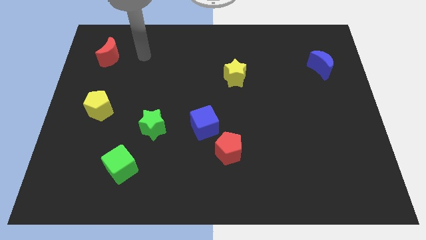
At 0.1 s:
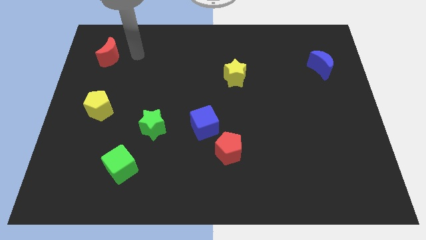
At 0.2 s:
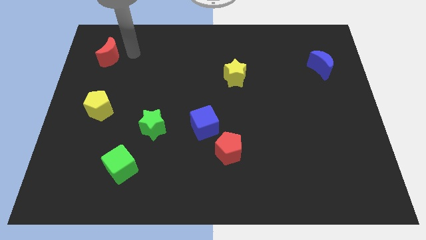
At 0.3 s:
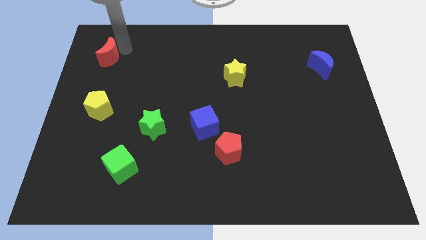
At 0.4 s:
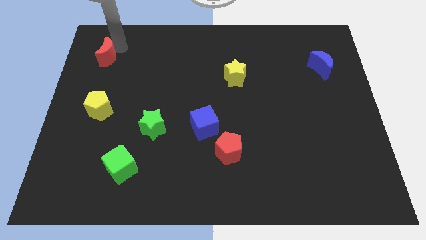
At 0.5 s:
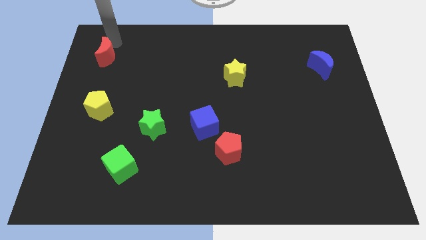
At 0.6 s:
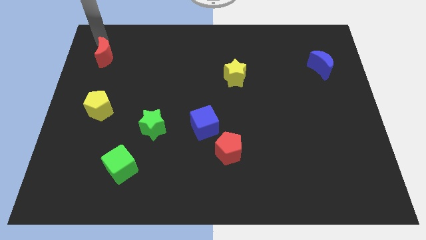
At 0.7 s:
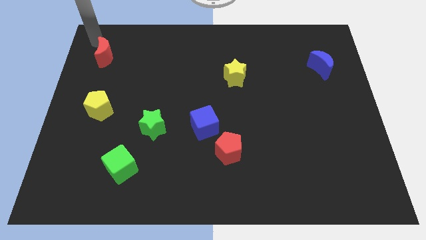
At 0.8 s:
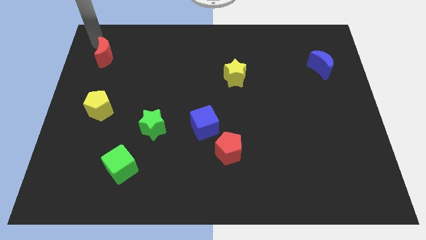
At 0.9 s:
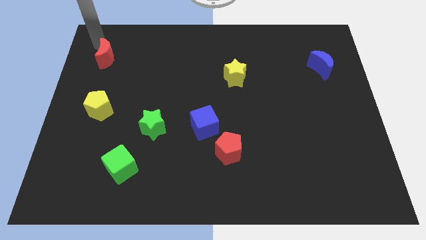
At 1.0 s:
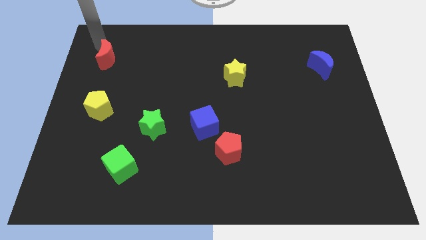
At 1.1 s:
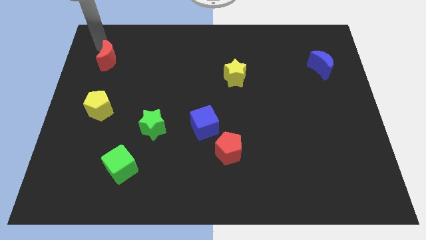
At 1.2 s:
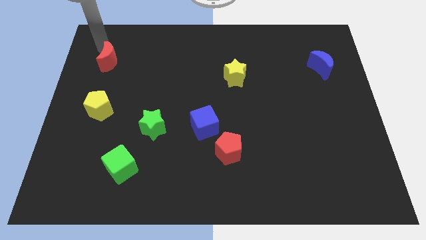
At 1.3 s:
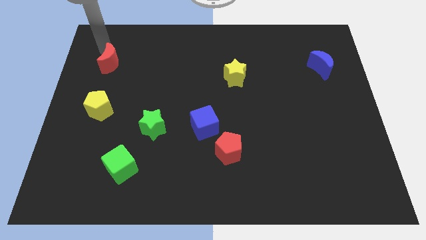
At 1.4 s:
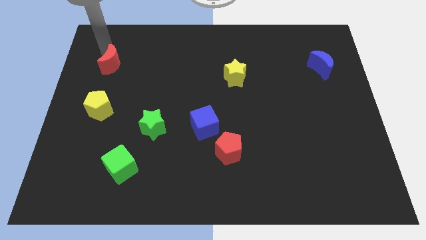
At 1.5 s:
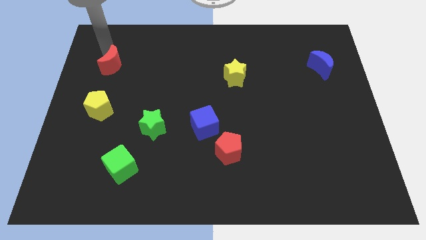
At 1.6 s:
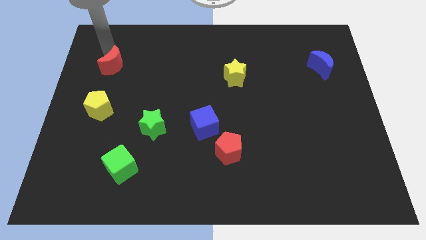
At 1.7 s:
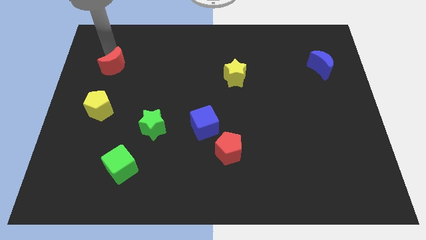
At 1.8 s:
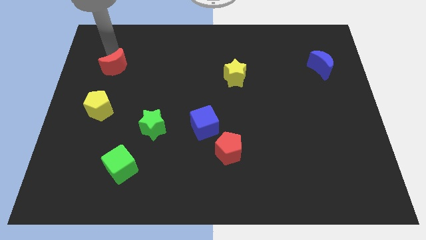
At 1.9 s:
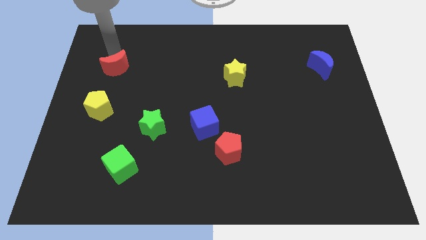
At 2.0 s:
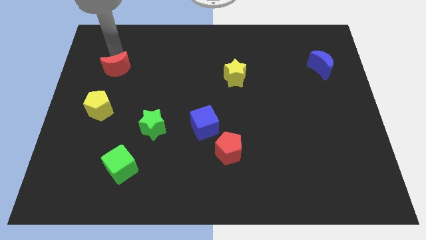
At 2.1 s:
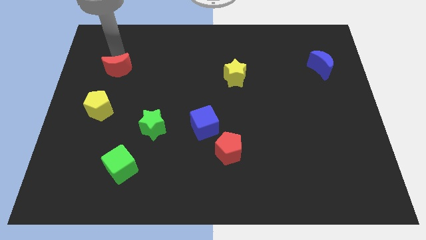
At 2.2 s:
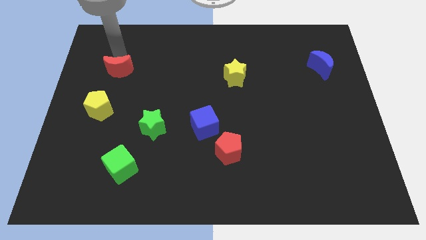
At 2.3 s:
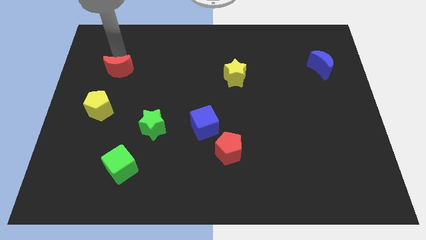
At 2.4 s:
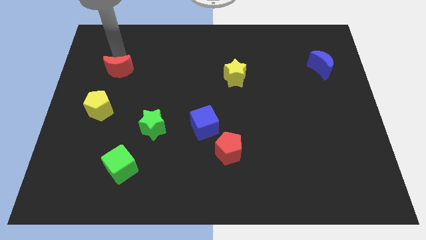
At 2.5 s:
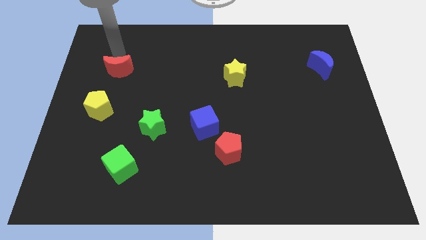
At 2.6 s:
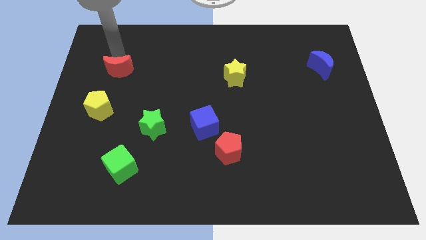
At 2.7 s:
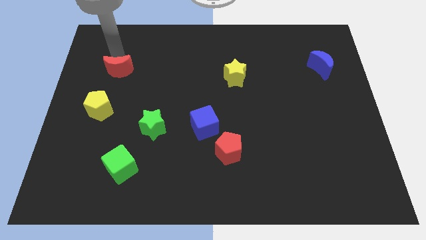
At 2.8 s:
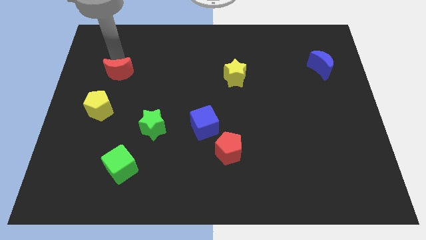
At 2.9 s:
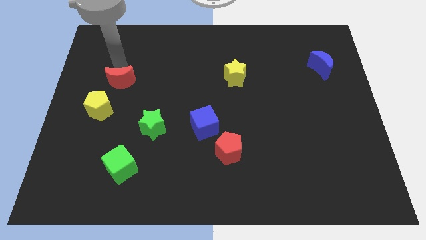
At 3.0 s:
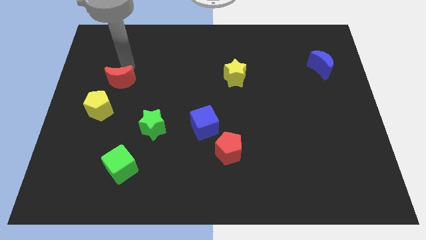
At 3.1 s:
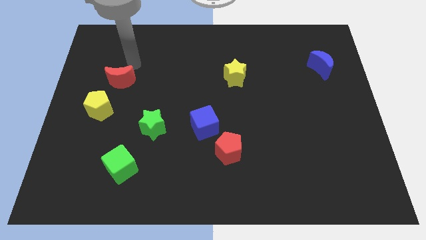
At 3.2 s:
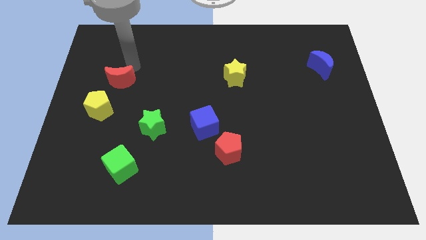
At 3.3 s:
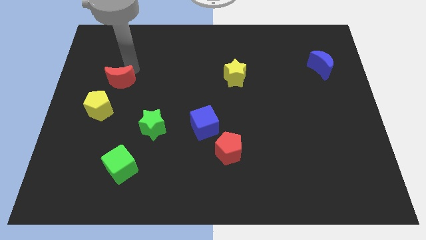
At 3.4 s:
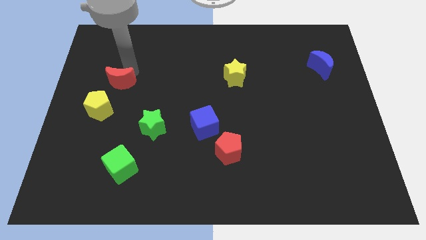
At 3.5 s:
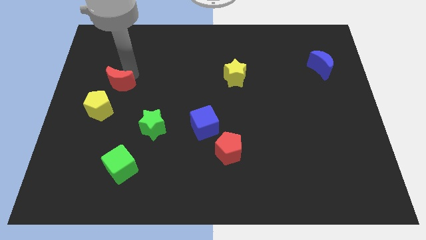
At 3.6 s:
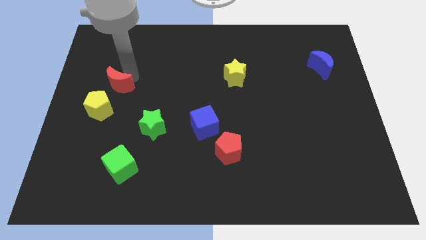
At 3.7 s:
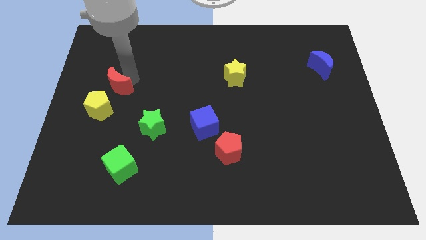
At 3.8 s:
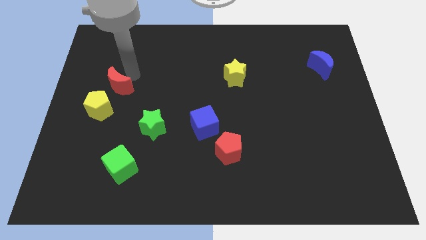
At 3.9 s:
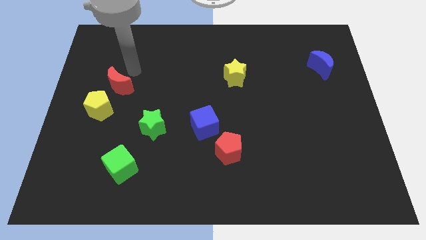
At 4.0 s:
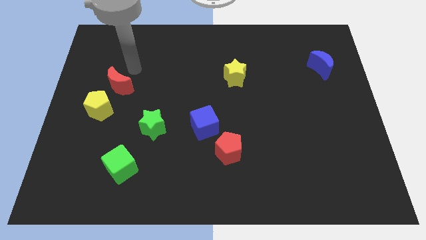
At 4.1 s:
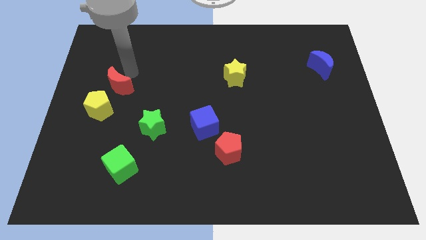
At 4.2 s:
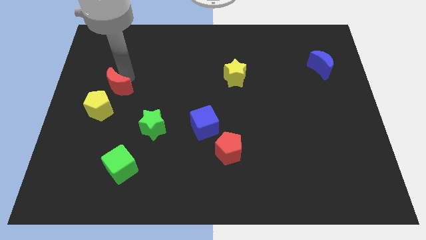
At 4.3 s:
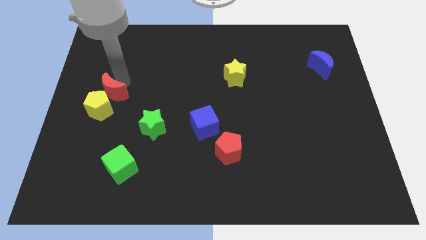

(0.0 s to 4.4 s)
move the red moon close to the yellow pentagon

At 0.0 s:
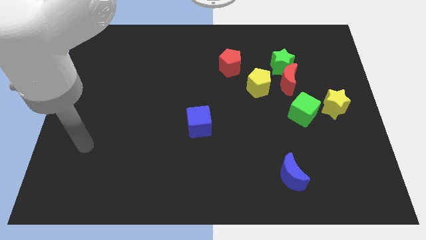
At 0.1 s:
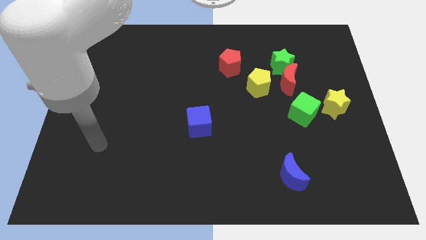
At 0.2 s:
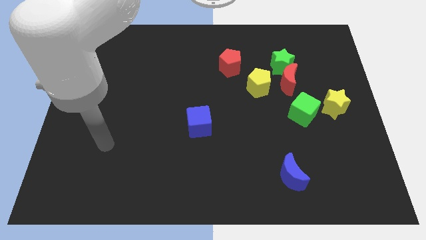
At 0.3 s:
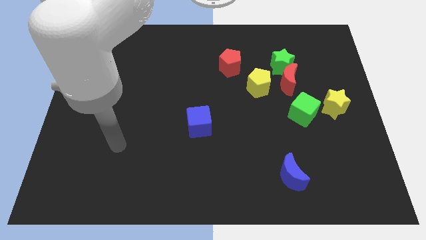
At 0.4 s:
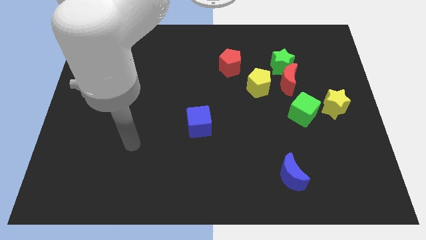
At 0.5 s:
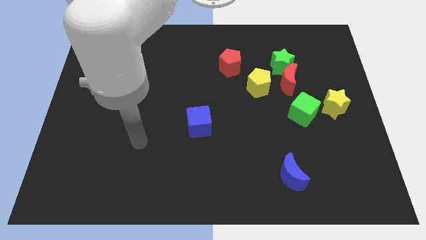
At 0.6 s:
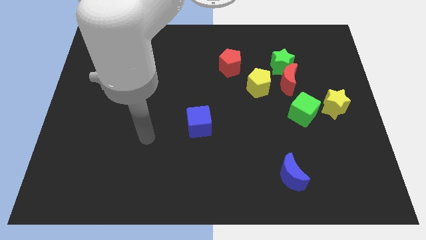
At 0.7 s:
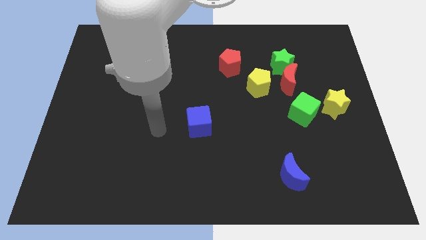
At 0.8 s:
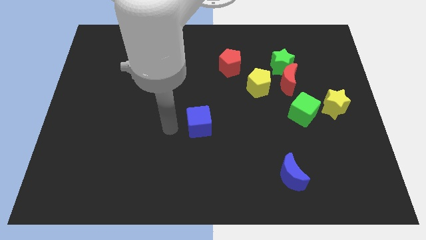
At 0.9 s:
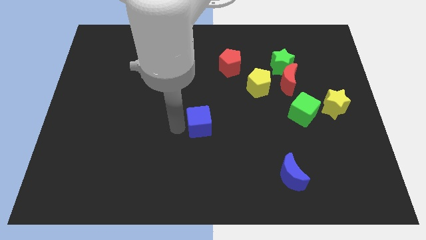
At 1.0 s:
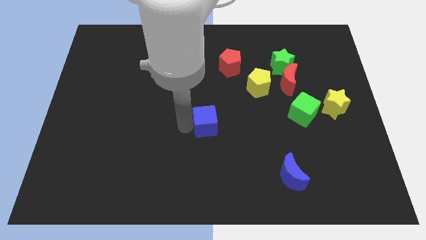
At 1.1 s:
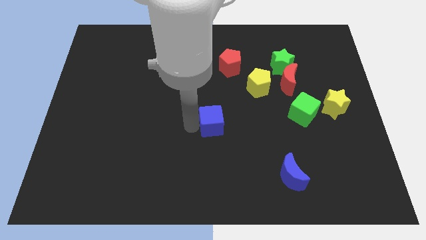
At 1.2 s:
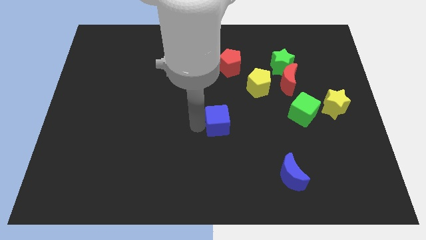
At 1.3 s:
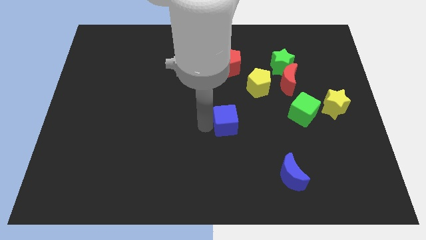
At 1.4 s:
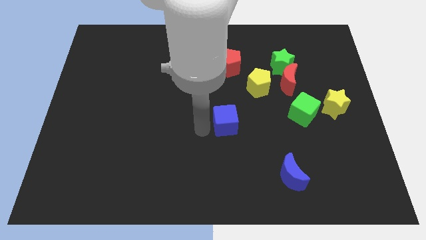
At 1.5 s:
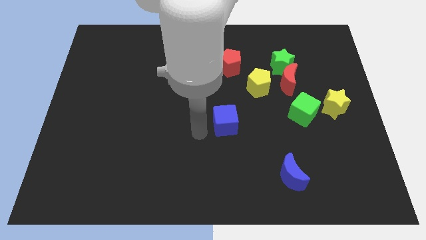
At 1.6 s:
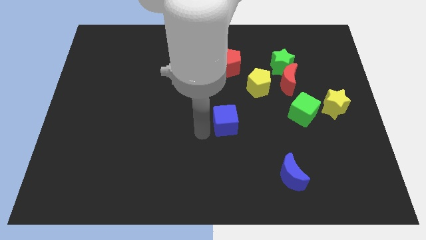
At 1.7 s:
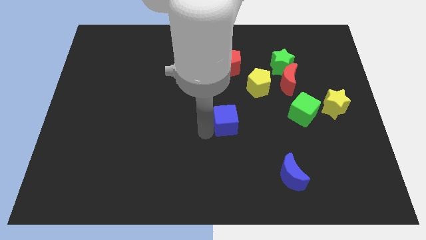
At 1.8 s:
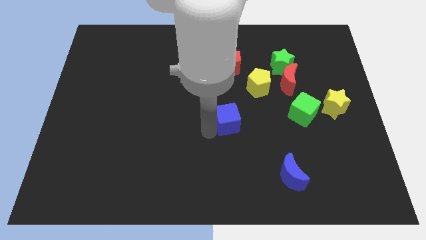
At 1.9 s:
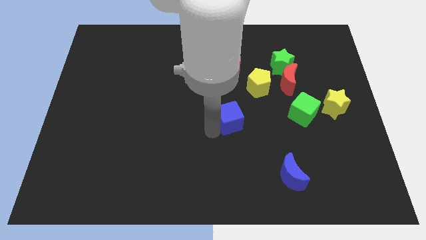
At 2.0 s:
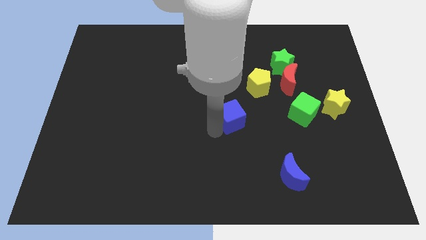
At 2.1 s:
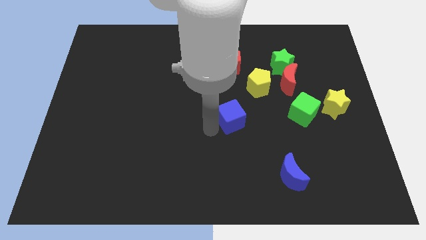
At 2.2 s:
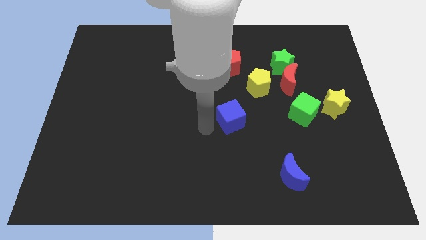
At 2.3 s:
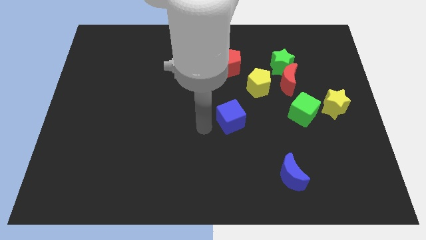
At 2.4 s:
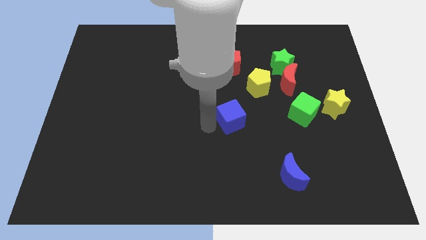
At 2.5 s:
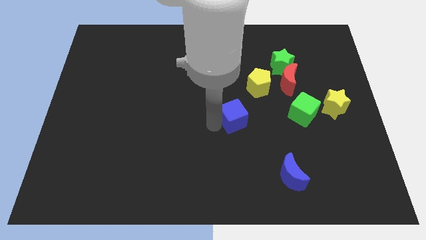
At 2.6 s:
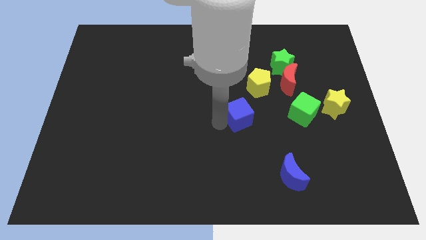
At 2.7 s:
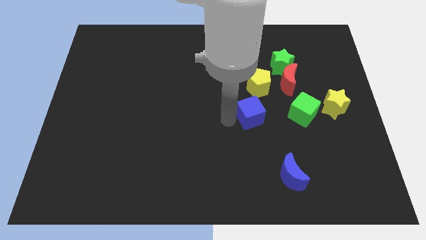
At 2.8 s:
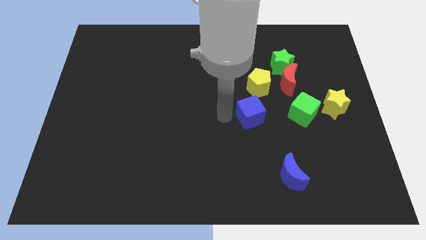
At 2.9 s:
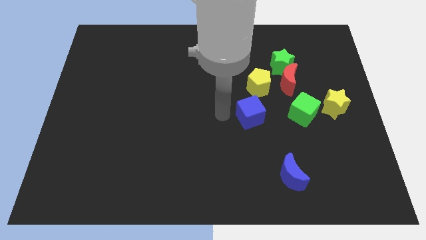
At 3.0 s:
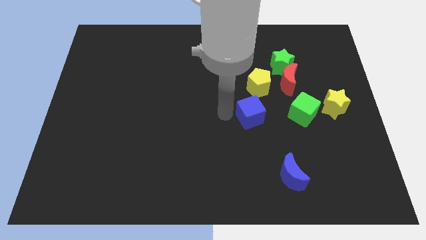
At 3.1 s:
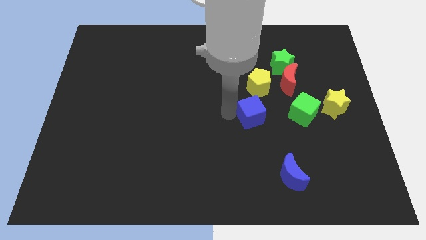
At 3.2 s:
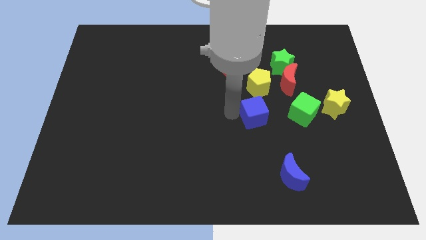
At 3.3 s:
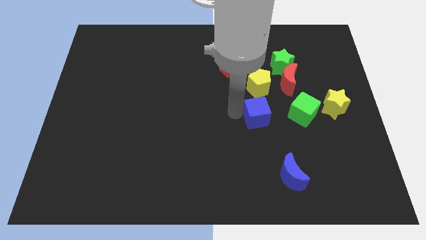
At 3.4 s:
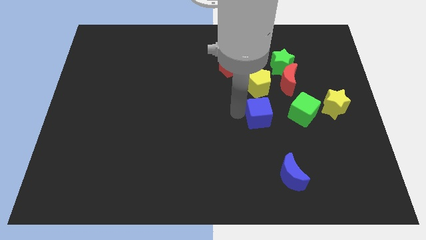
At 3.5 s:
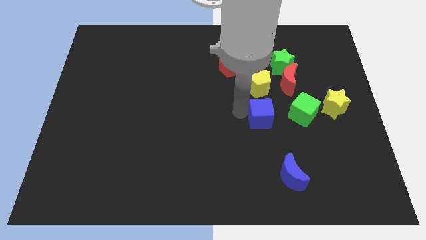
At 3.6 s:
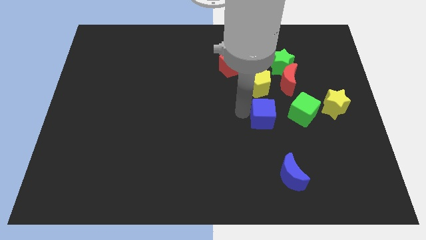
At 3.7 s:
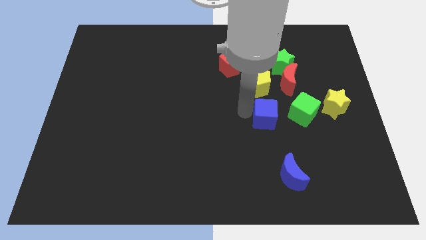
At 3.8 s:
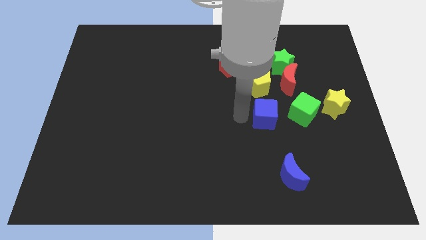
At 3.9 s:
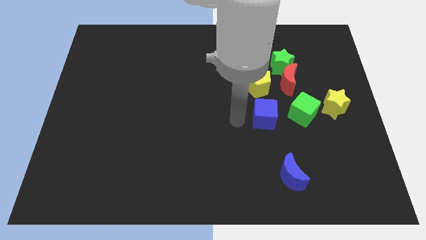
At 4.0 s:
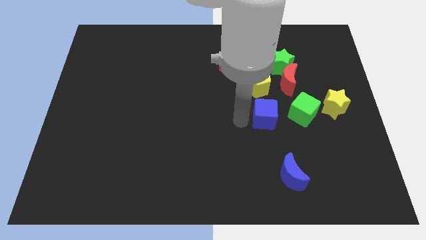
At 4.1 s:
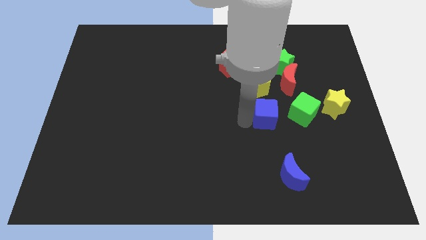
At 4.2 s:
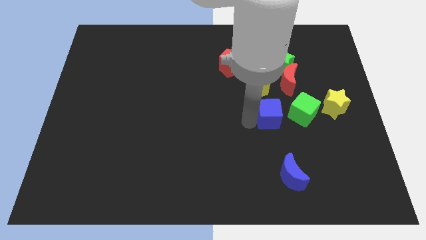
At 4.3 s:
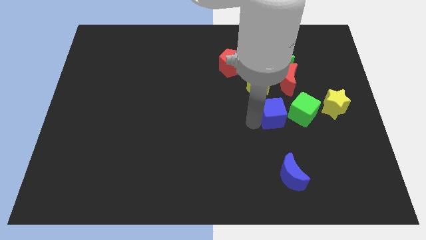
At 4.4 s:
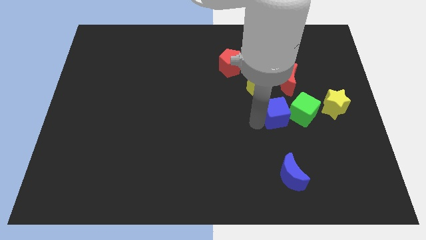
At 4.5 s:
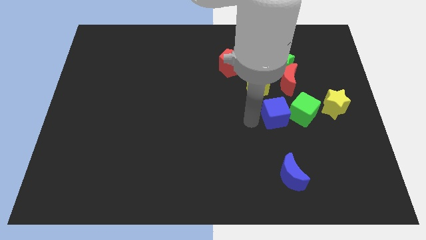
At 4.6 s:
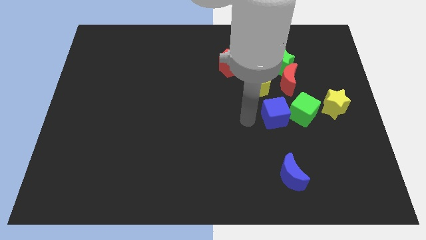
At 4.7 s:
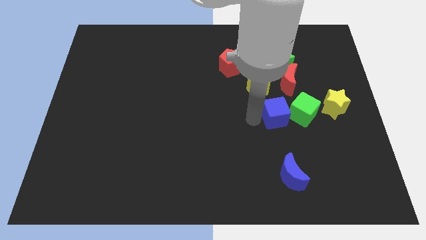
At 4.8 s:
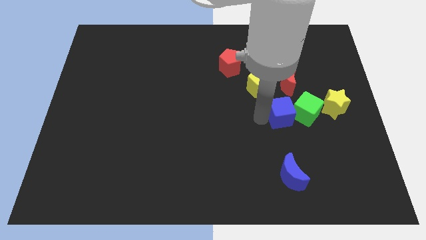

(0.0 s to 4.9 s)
put the blue cube next to the green cube
